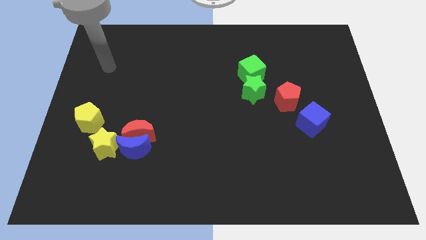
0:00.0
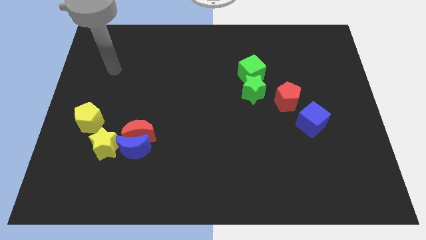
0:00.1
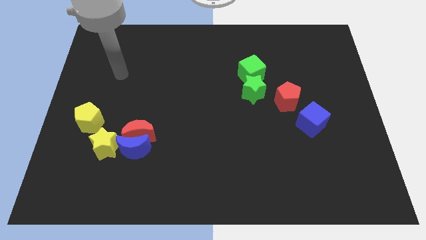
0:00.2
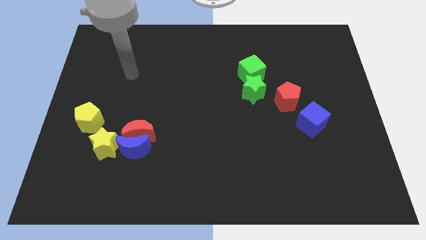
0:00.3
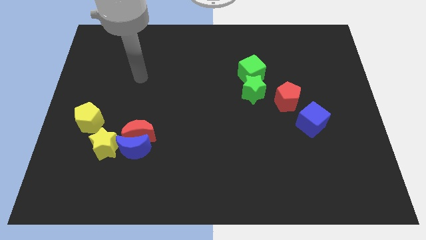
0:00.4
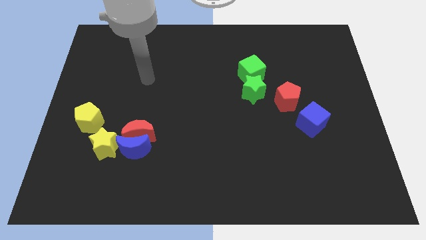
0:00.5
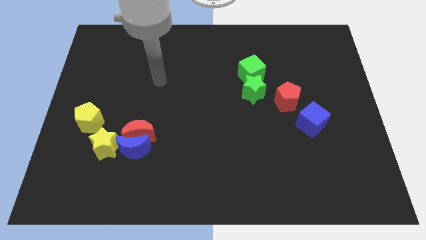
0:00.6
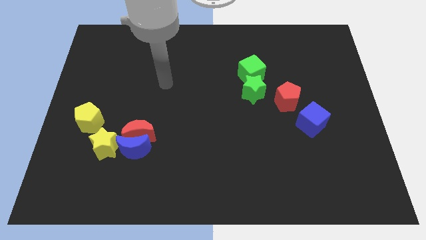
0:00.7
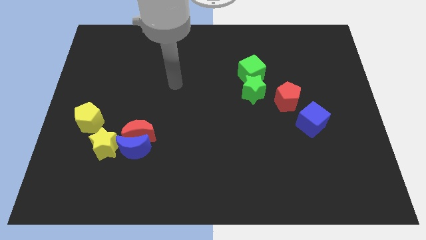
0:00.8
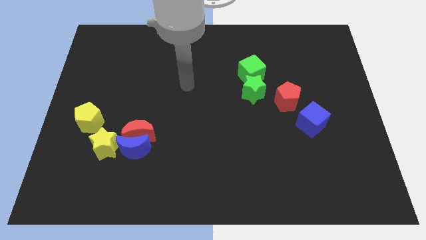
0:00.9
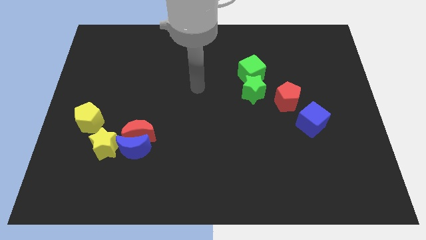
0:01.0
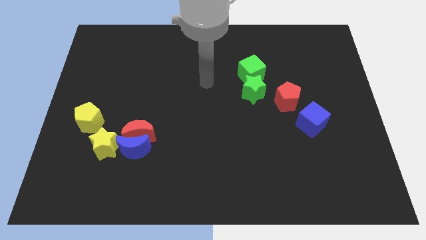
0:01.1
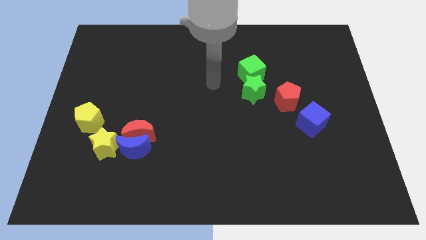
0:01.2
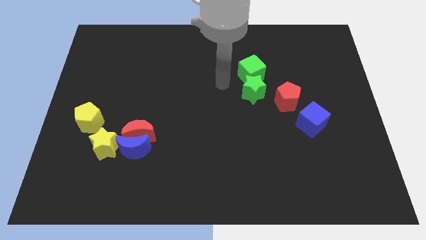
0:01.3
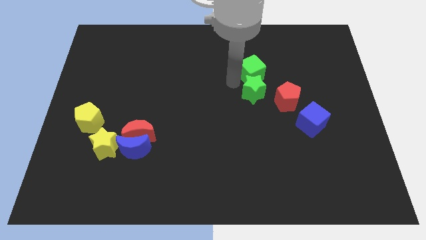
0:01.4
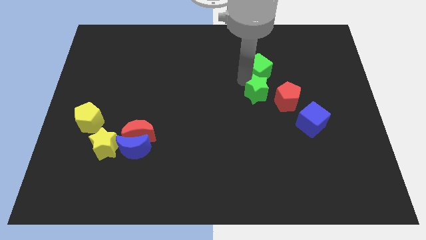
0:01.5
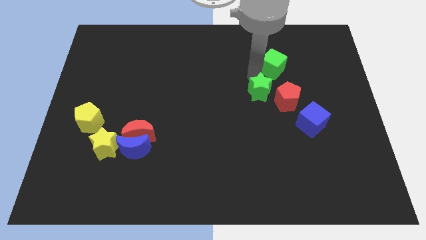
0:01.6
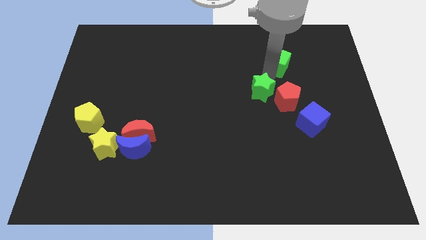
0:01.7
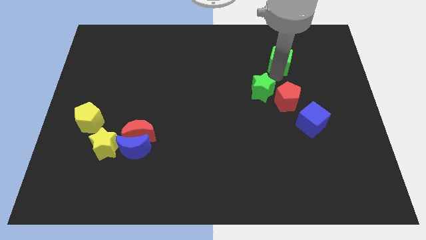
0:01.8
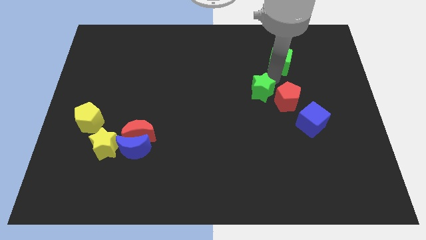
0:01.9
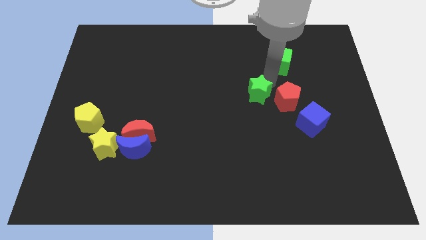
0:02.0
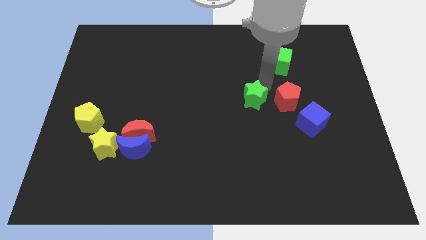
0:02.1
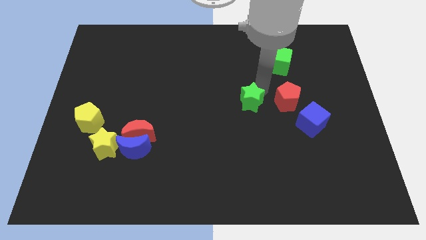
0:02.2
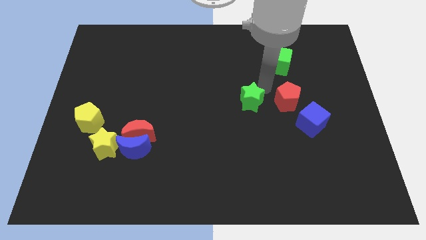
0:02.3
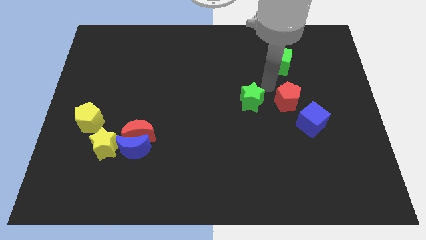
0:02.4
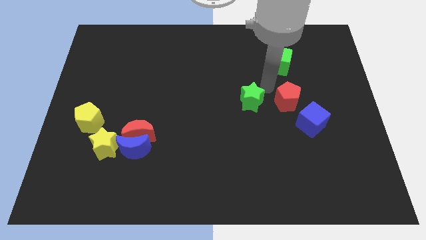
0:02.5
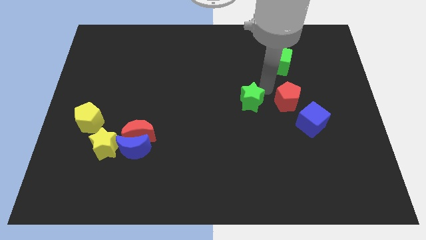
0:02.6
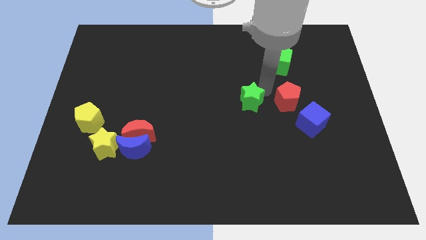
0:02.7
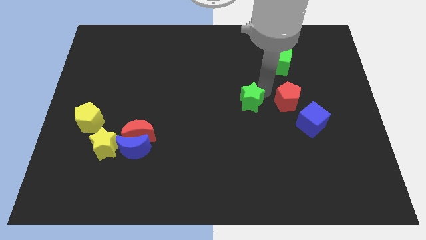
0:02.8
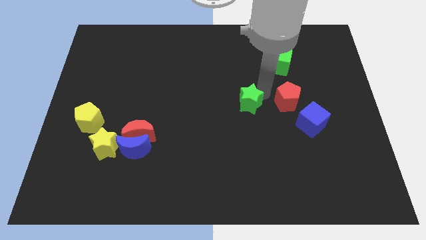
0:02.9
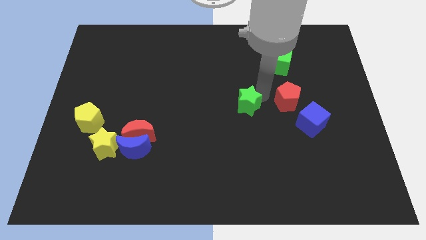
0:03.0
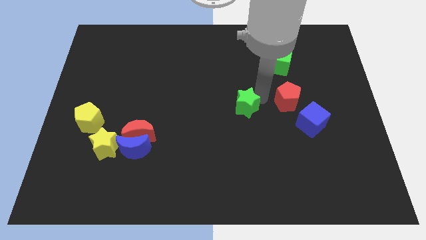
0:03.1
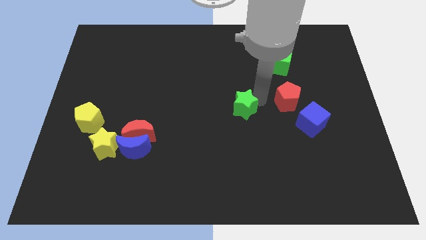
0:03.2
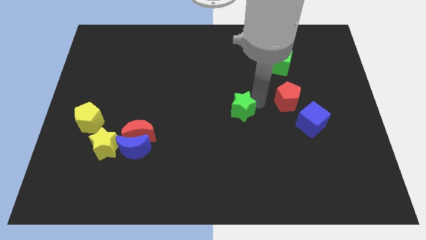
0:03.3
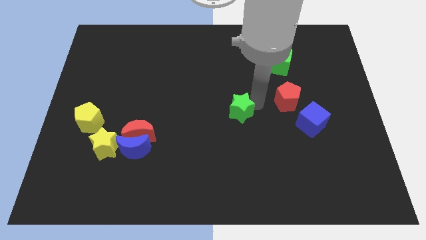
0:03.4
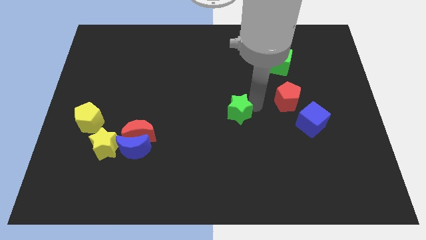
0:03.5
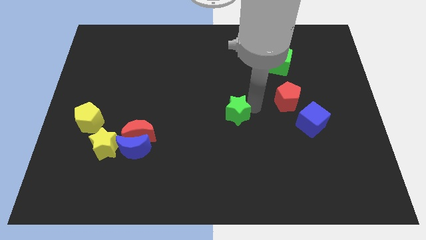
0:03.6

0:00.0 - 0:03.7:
push the green star diagonally down and to the left a bit

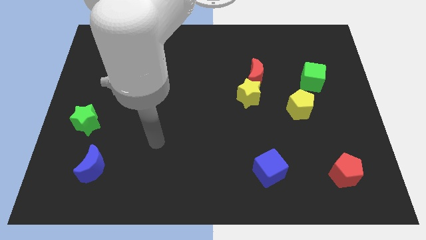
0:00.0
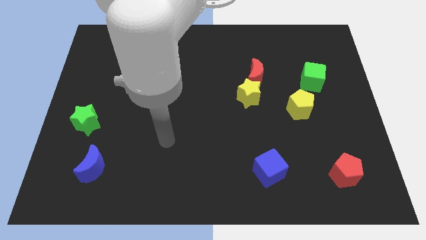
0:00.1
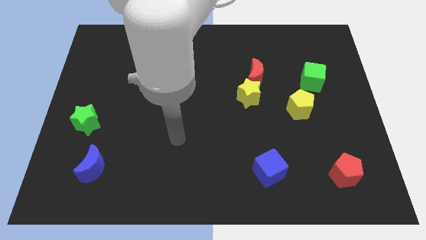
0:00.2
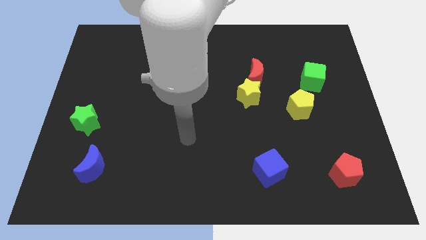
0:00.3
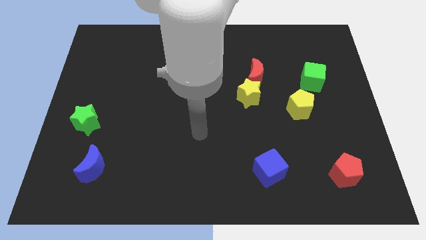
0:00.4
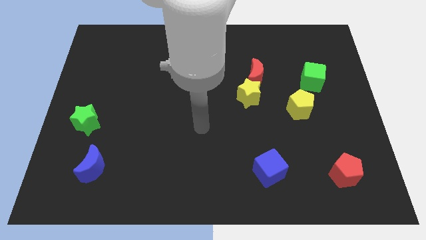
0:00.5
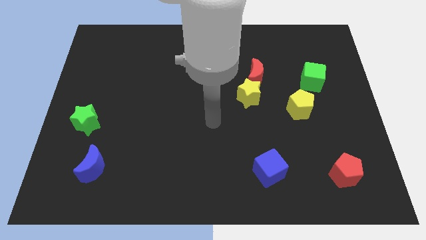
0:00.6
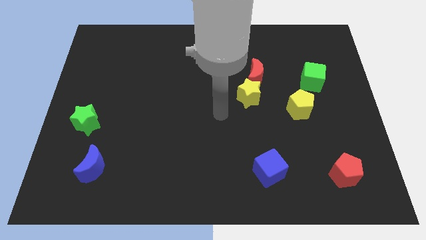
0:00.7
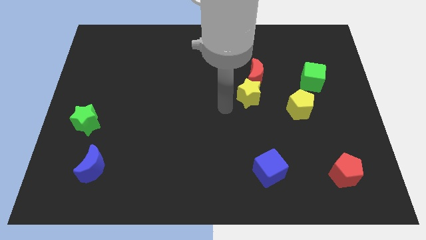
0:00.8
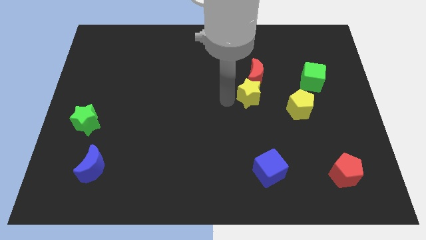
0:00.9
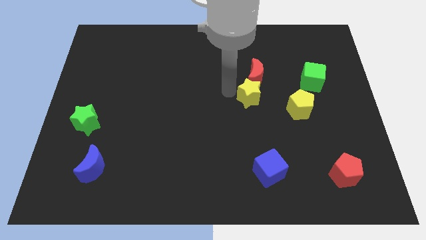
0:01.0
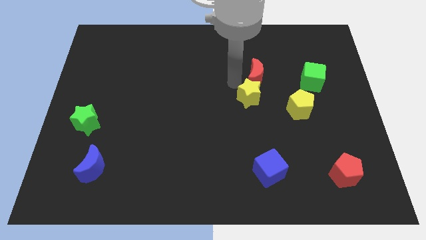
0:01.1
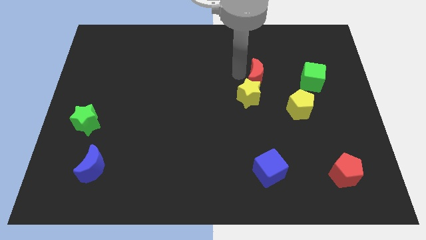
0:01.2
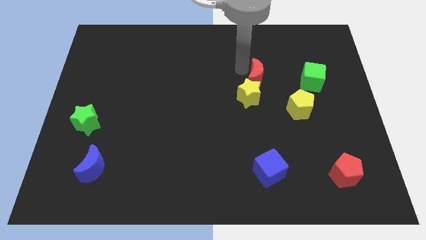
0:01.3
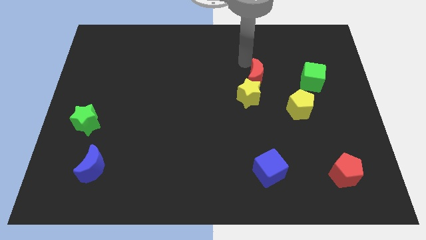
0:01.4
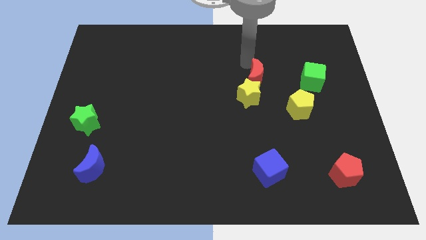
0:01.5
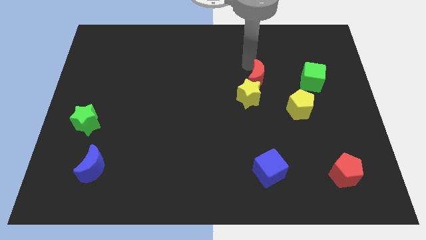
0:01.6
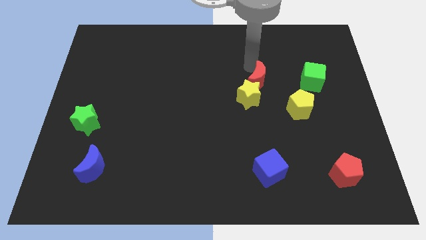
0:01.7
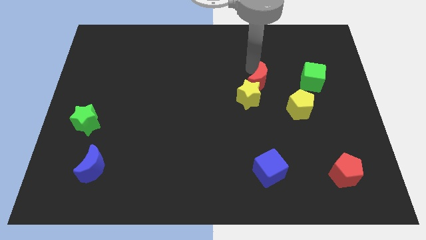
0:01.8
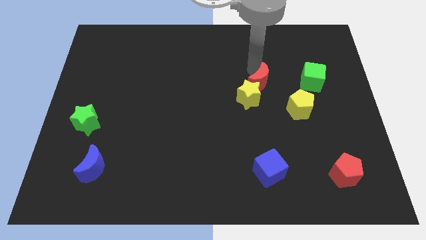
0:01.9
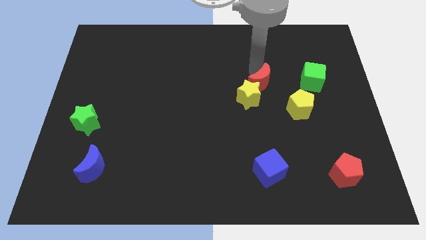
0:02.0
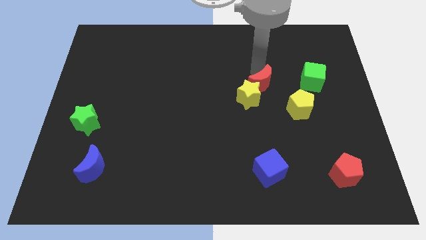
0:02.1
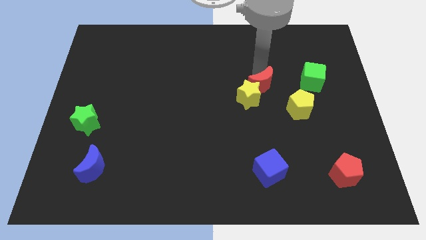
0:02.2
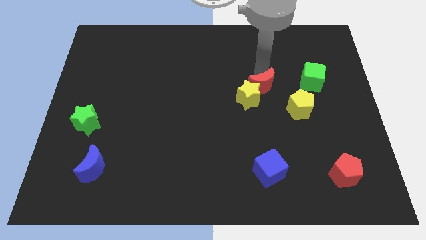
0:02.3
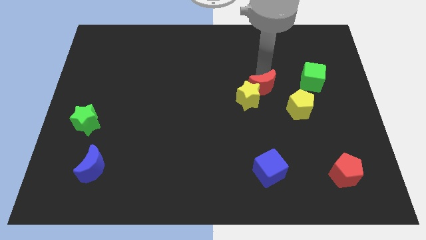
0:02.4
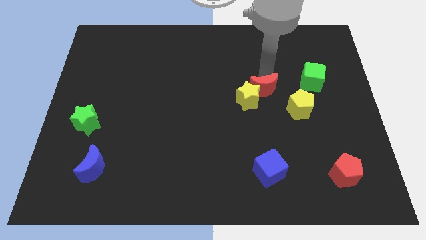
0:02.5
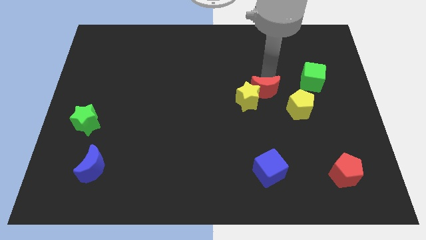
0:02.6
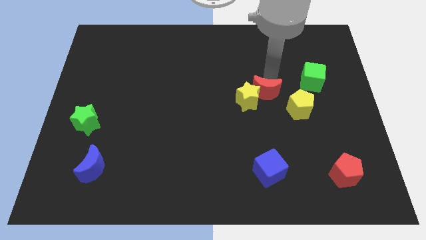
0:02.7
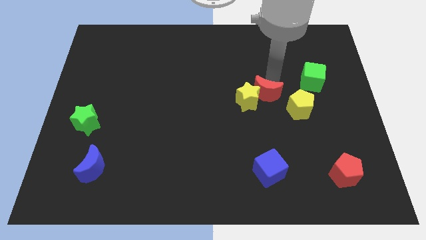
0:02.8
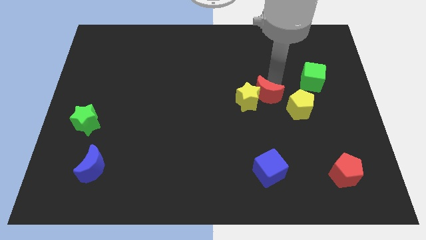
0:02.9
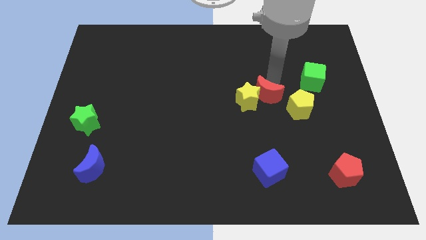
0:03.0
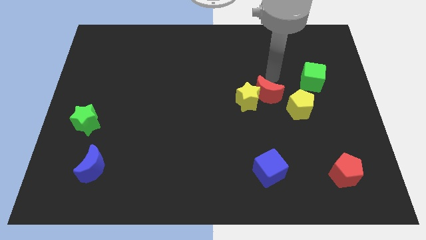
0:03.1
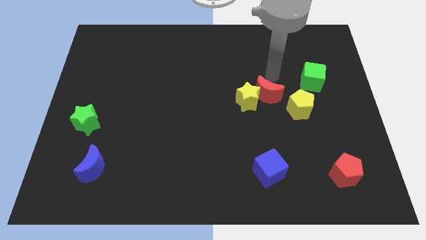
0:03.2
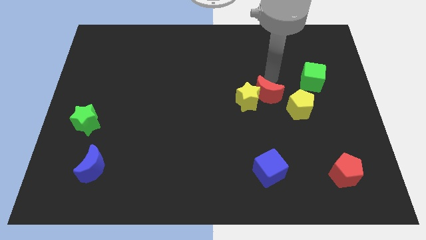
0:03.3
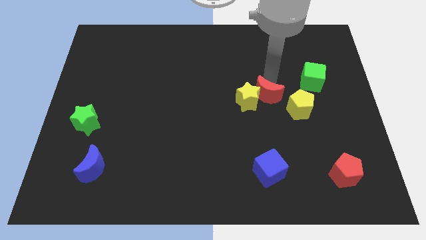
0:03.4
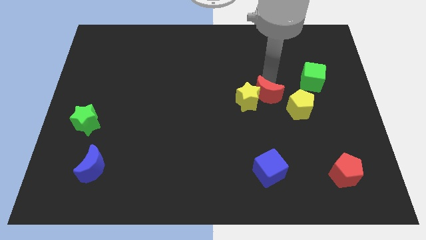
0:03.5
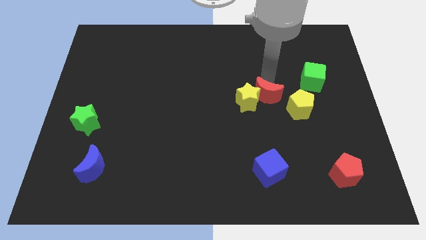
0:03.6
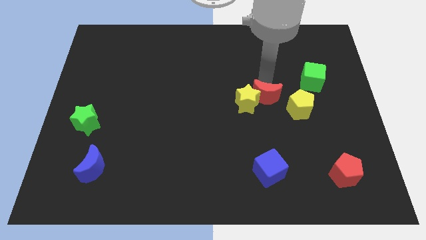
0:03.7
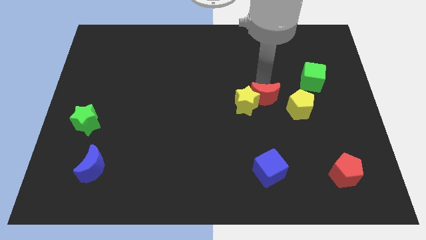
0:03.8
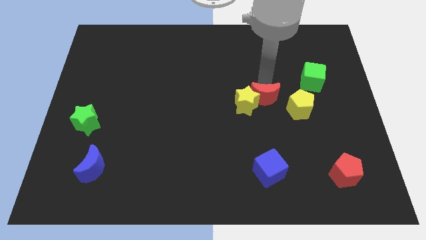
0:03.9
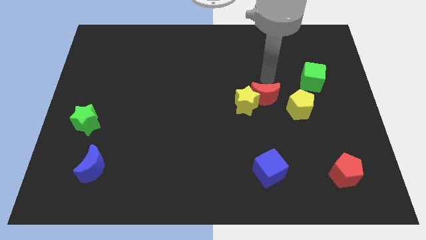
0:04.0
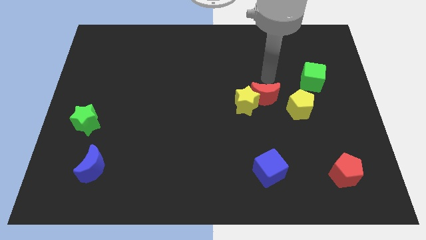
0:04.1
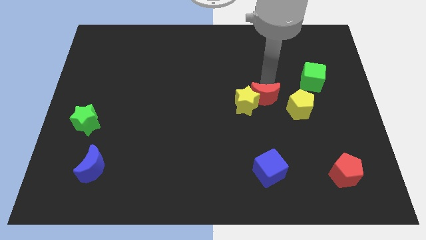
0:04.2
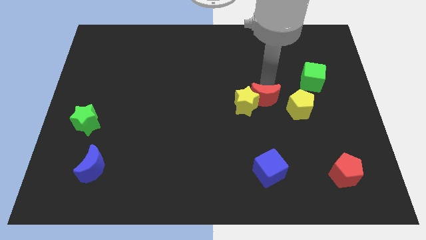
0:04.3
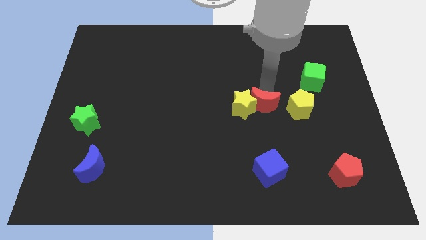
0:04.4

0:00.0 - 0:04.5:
move the red moon a bit downwards
